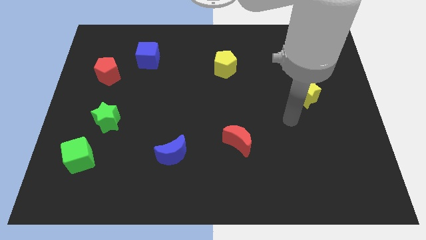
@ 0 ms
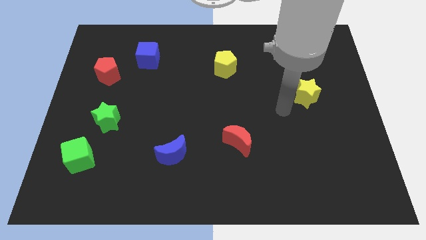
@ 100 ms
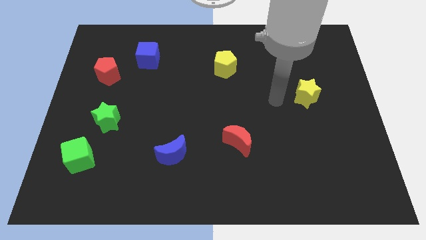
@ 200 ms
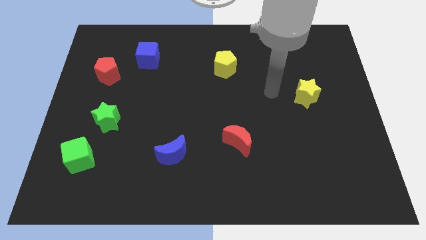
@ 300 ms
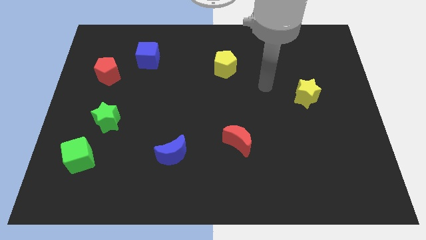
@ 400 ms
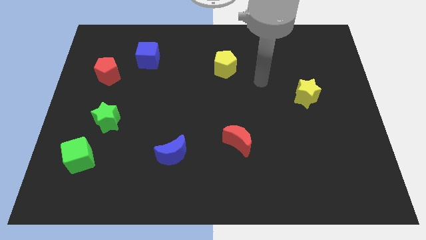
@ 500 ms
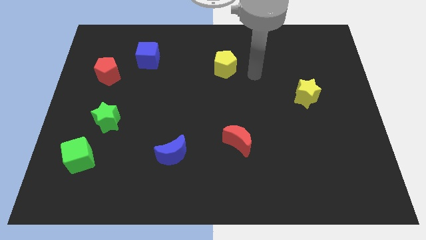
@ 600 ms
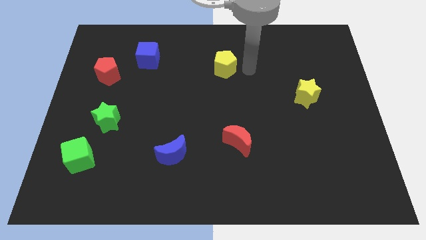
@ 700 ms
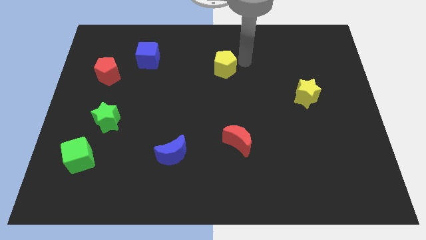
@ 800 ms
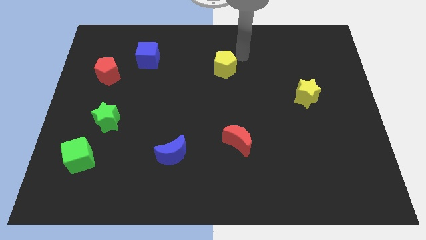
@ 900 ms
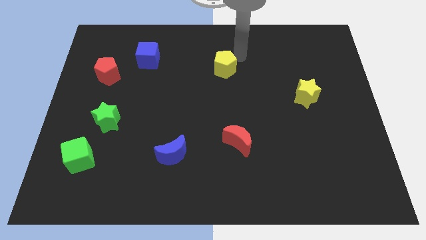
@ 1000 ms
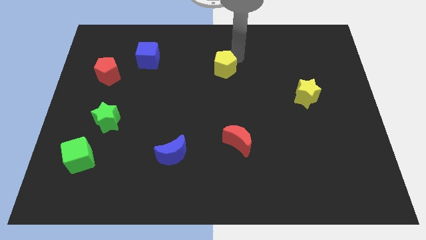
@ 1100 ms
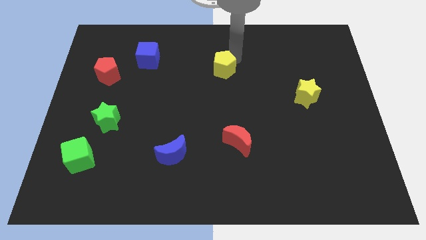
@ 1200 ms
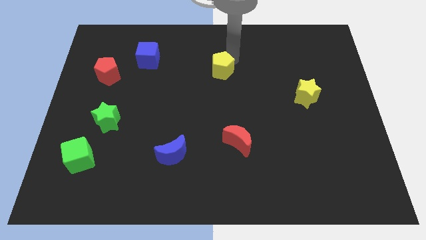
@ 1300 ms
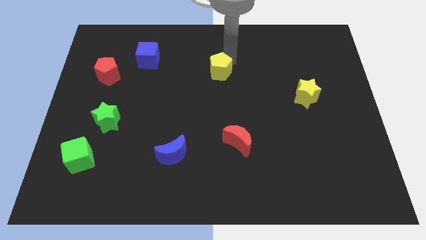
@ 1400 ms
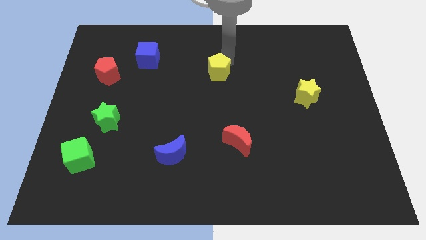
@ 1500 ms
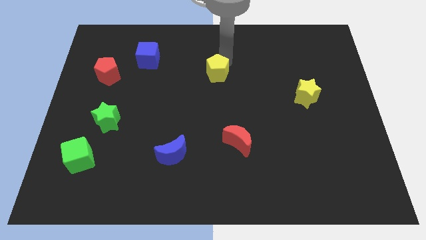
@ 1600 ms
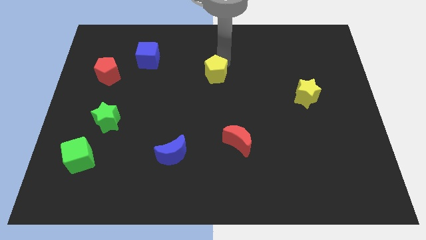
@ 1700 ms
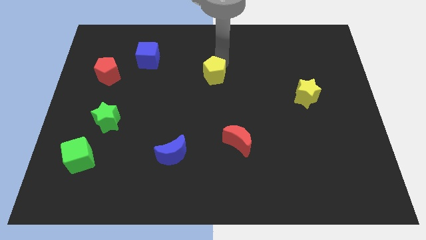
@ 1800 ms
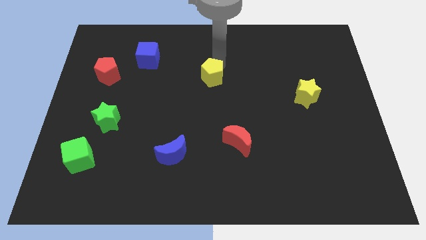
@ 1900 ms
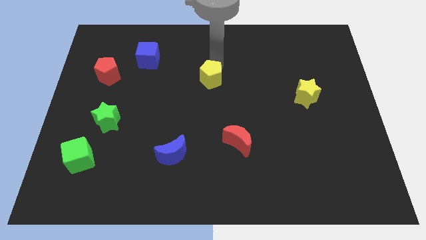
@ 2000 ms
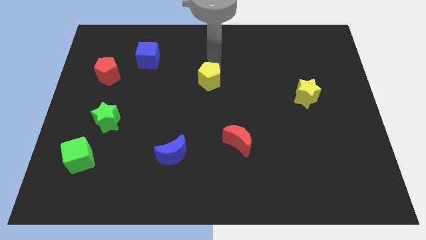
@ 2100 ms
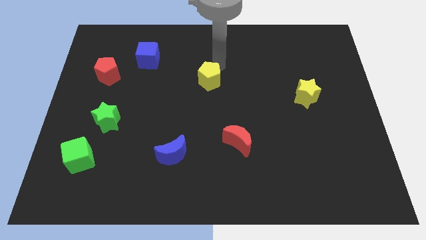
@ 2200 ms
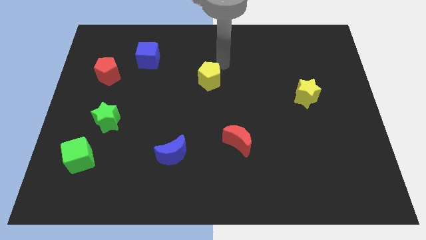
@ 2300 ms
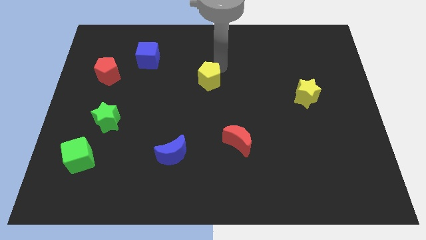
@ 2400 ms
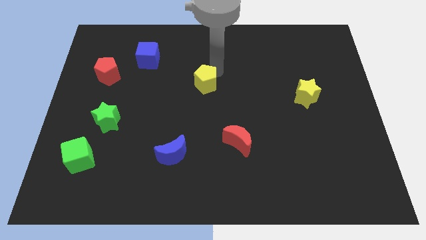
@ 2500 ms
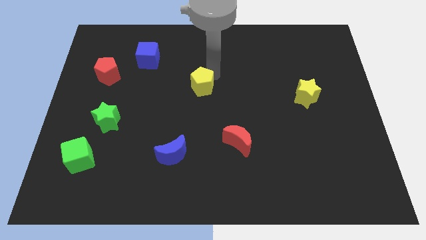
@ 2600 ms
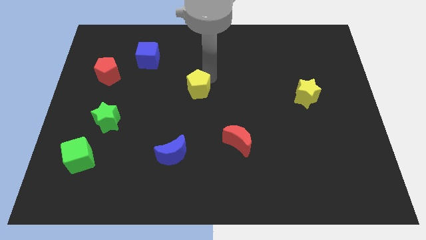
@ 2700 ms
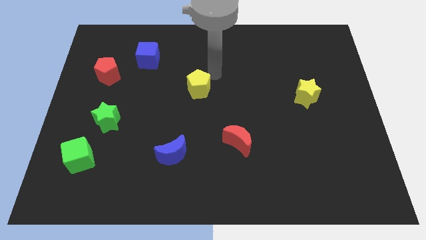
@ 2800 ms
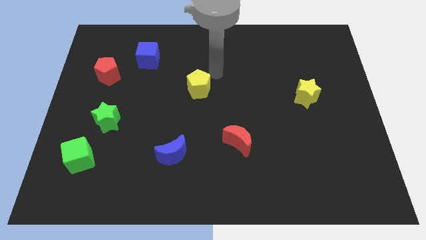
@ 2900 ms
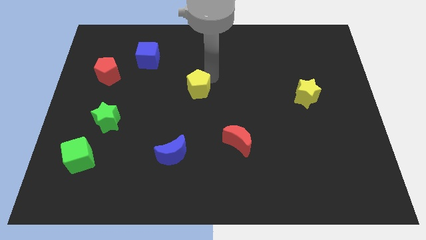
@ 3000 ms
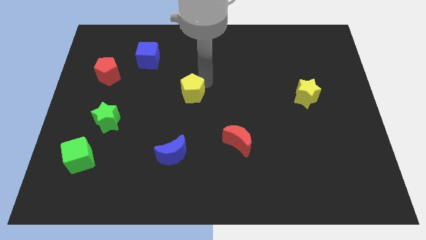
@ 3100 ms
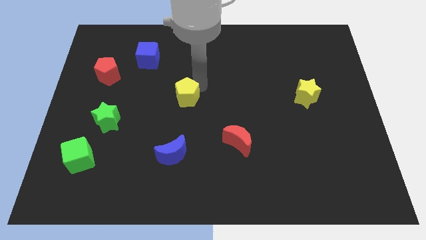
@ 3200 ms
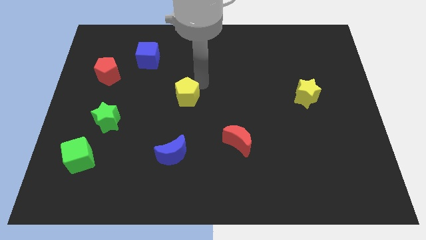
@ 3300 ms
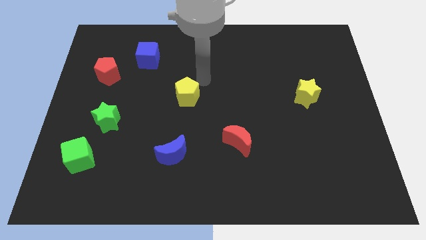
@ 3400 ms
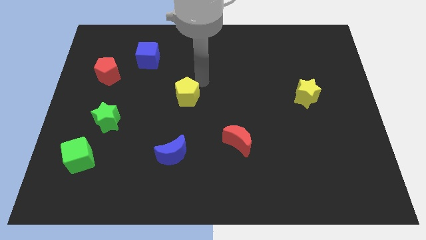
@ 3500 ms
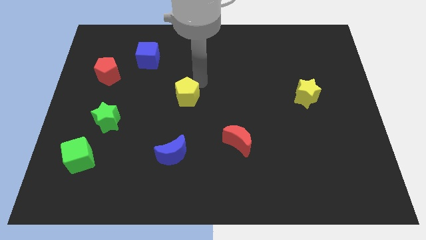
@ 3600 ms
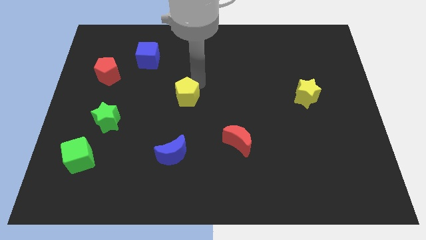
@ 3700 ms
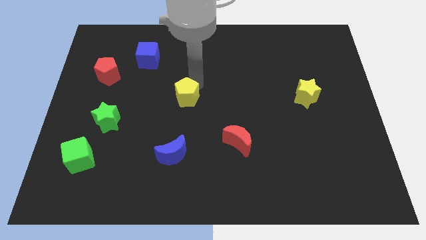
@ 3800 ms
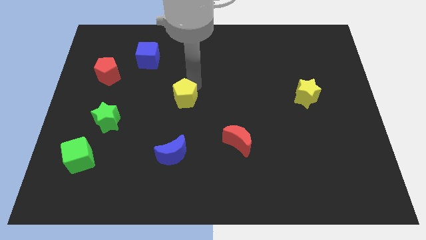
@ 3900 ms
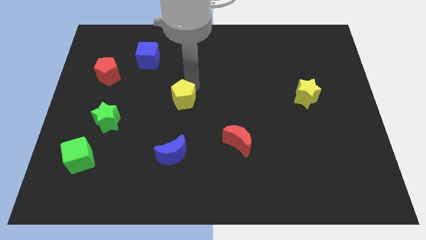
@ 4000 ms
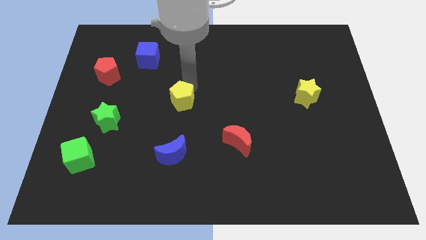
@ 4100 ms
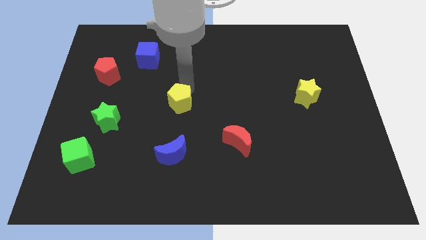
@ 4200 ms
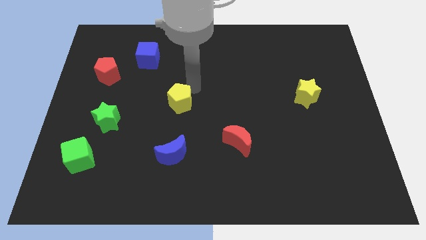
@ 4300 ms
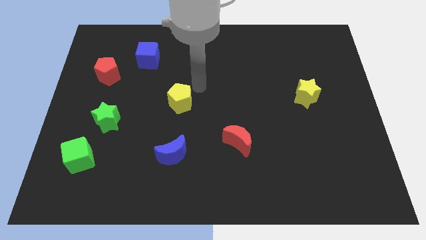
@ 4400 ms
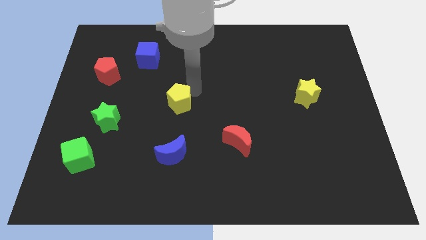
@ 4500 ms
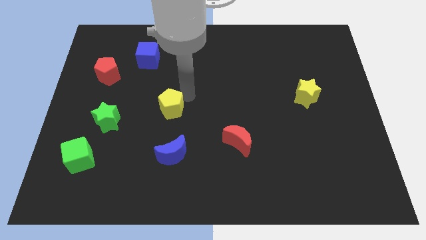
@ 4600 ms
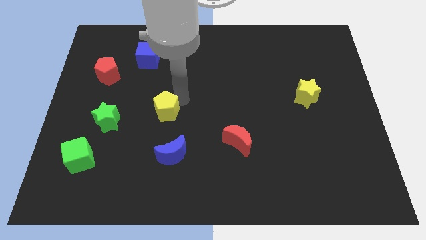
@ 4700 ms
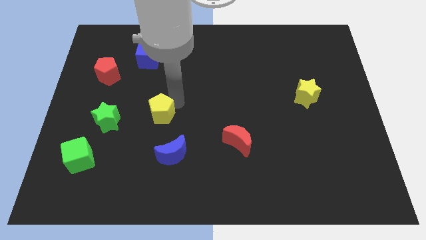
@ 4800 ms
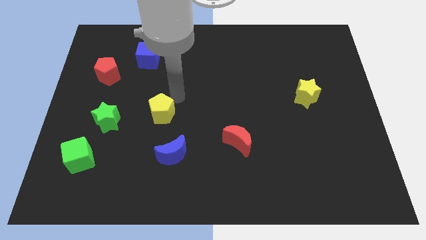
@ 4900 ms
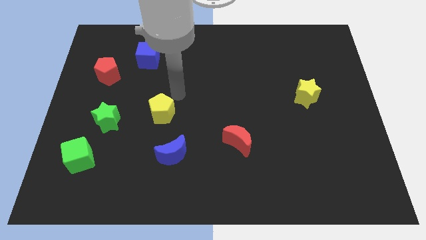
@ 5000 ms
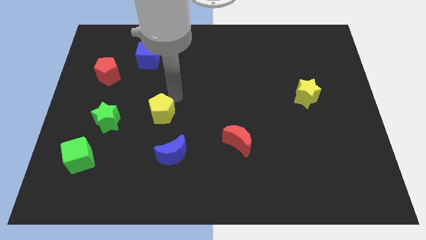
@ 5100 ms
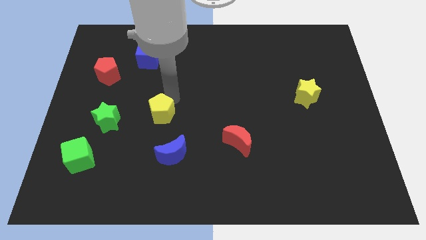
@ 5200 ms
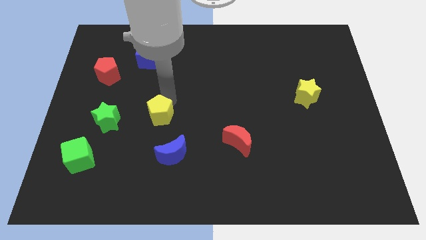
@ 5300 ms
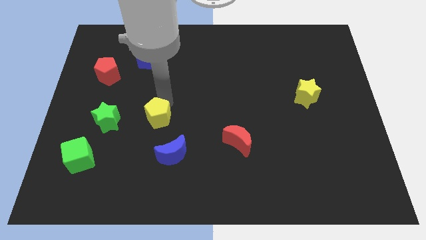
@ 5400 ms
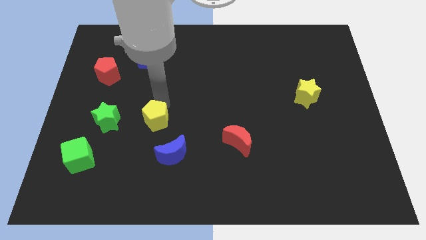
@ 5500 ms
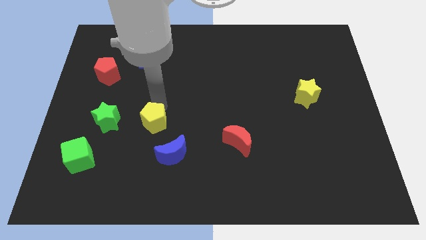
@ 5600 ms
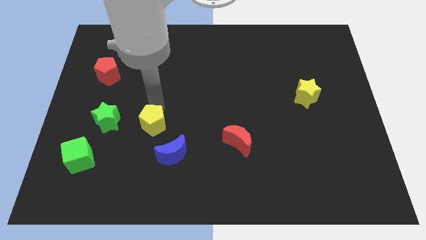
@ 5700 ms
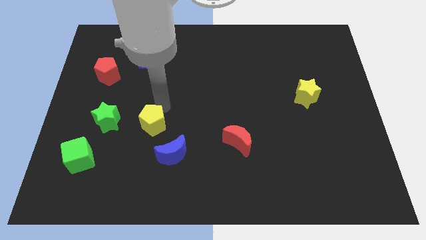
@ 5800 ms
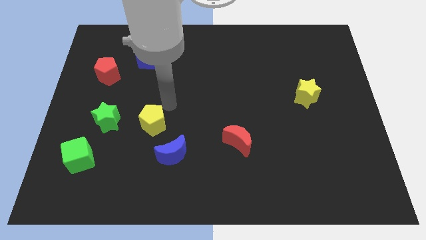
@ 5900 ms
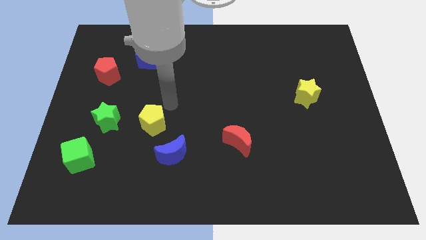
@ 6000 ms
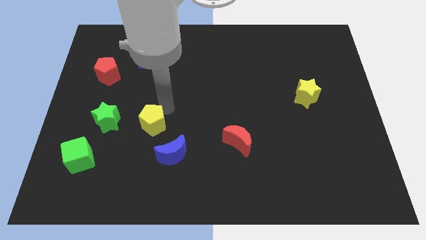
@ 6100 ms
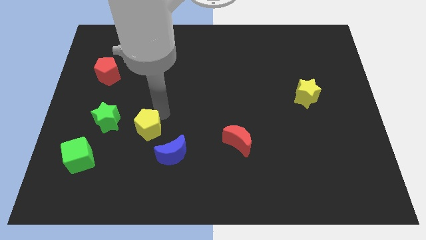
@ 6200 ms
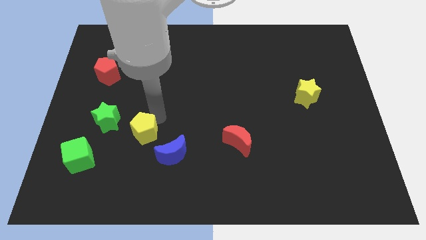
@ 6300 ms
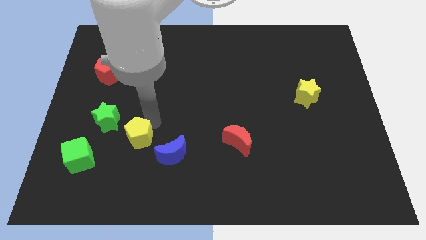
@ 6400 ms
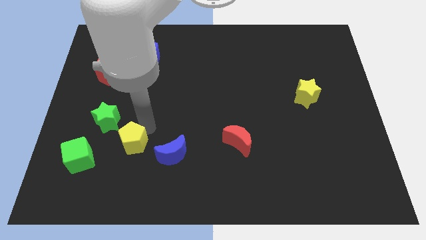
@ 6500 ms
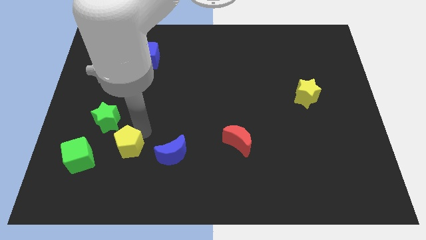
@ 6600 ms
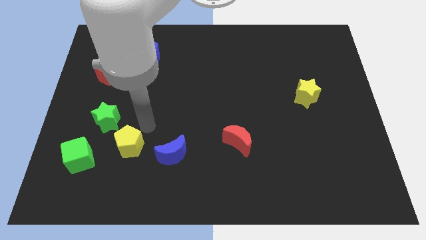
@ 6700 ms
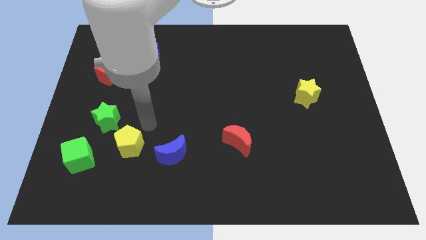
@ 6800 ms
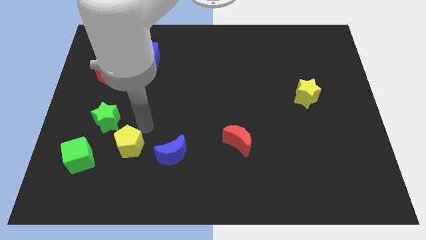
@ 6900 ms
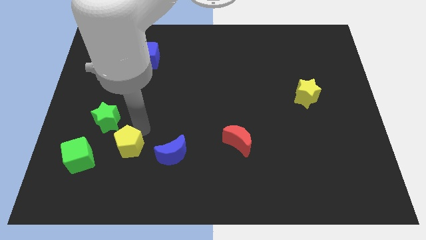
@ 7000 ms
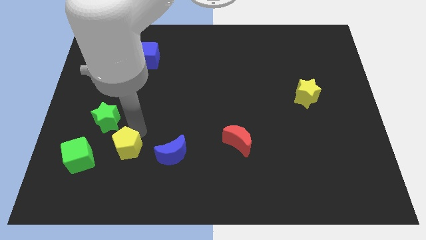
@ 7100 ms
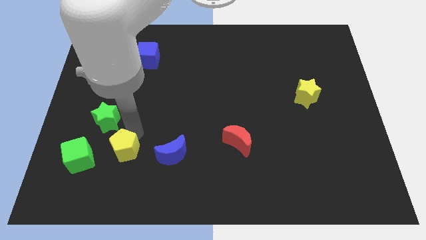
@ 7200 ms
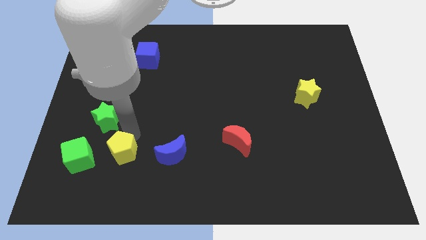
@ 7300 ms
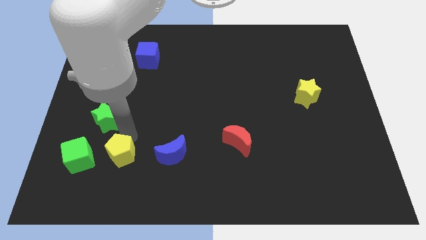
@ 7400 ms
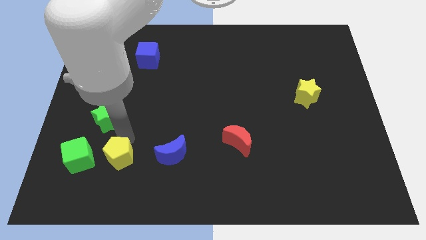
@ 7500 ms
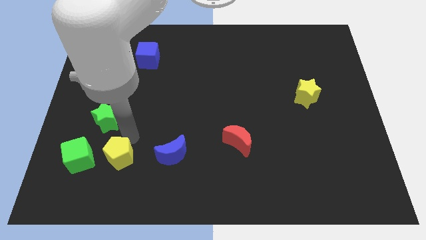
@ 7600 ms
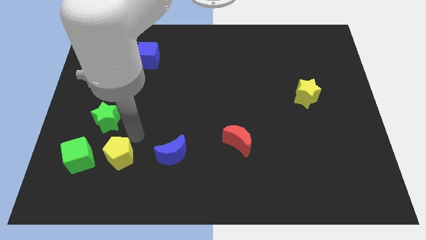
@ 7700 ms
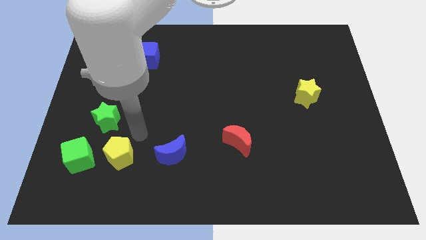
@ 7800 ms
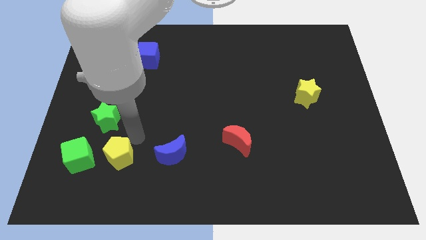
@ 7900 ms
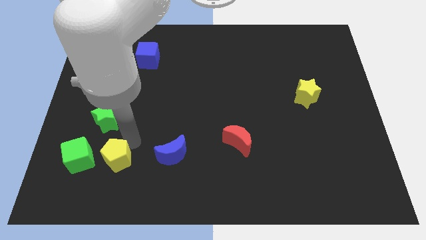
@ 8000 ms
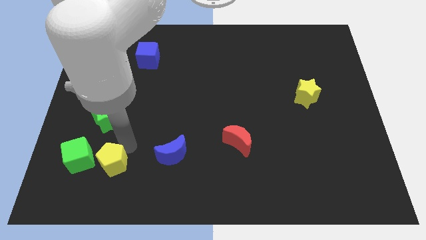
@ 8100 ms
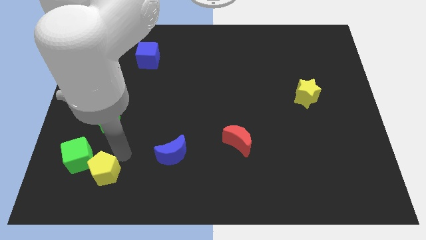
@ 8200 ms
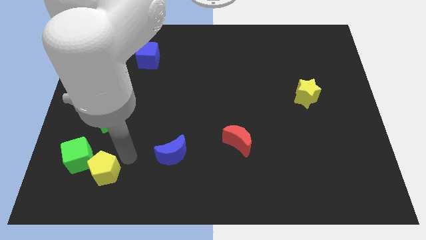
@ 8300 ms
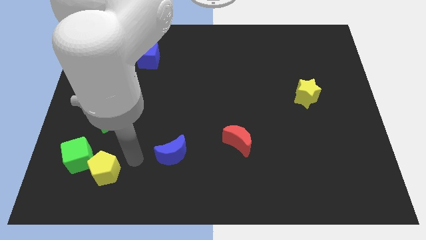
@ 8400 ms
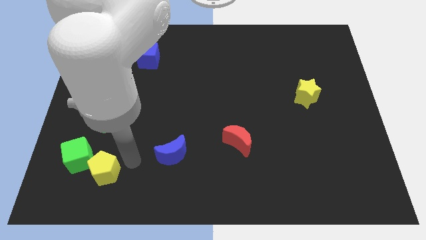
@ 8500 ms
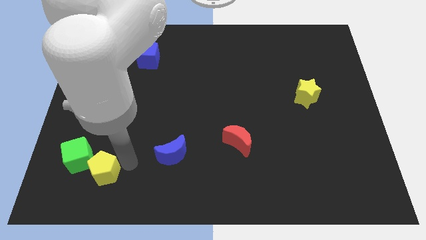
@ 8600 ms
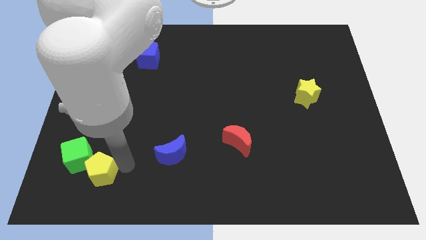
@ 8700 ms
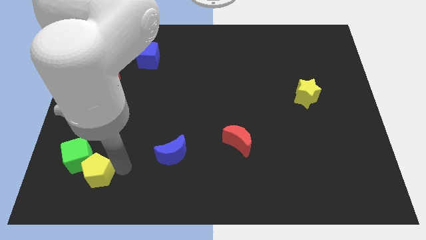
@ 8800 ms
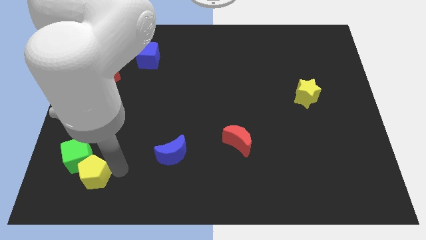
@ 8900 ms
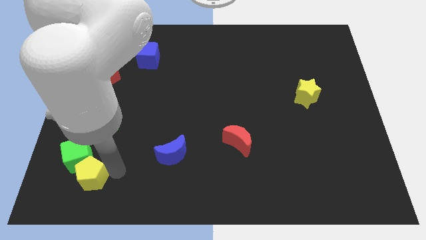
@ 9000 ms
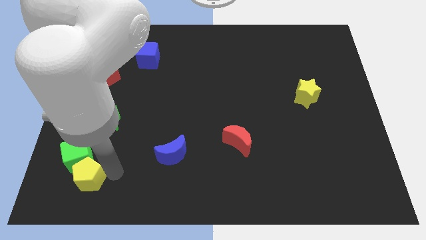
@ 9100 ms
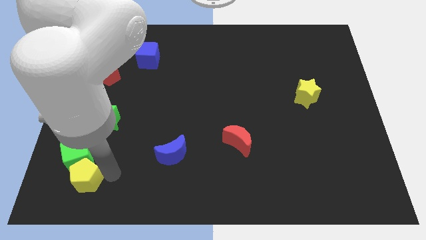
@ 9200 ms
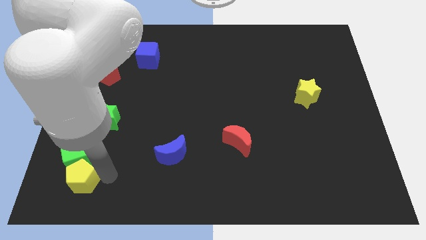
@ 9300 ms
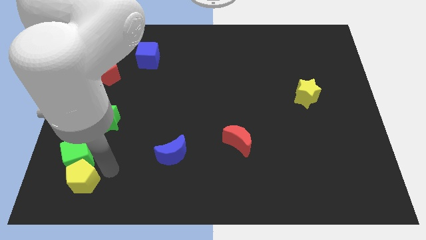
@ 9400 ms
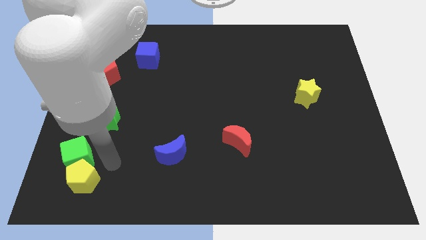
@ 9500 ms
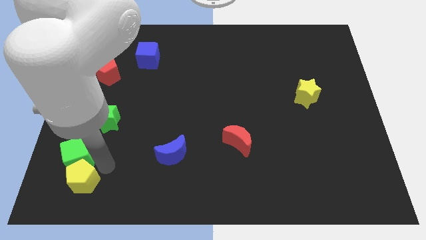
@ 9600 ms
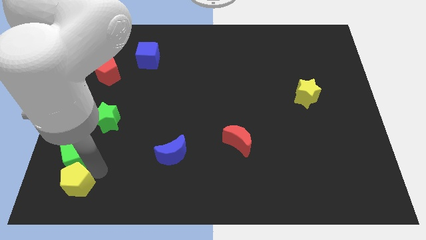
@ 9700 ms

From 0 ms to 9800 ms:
slide the yellow pentagon to the bottom left of the board
